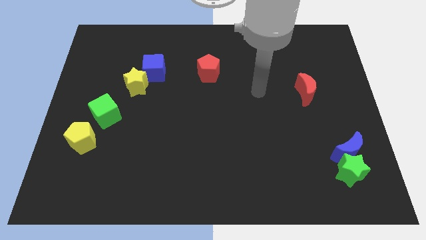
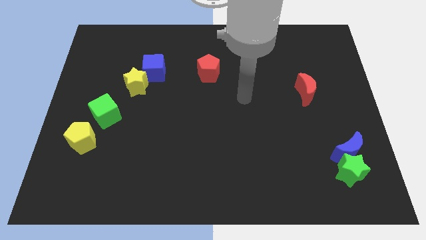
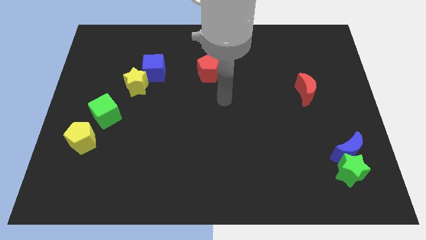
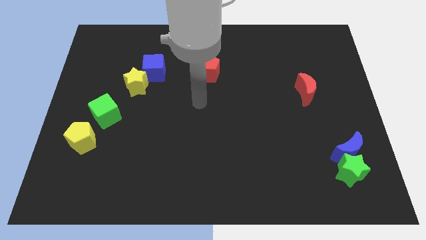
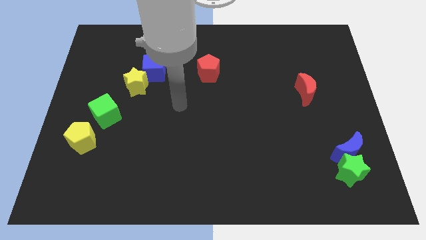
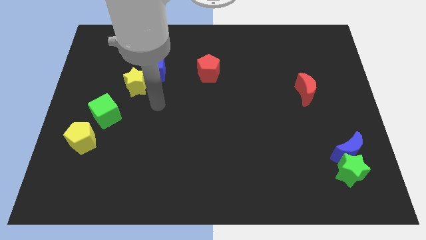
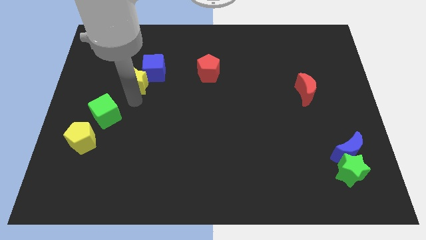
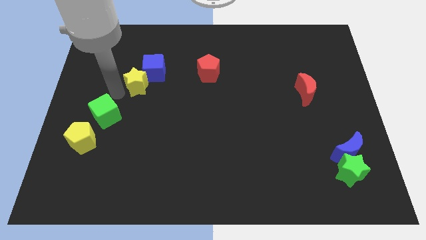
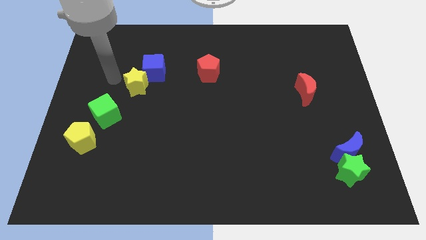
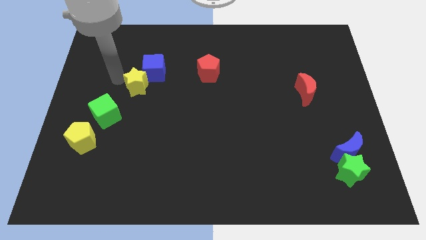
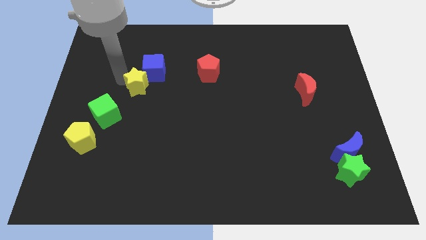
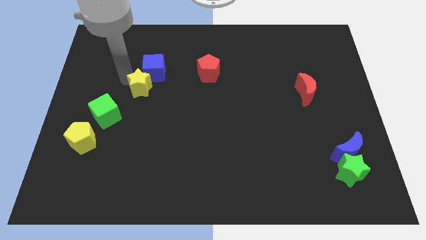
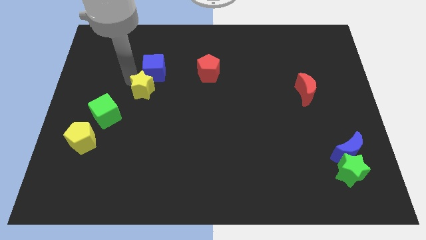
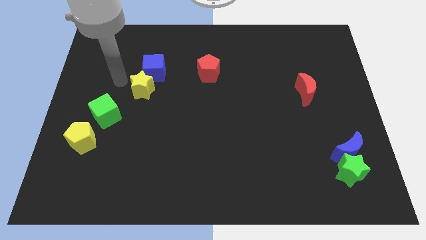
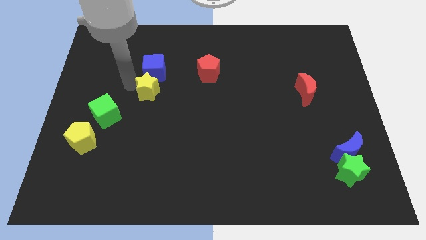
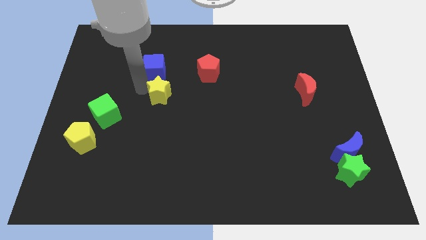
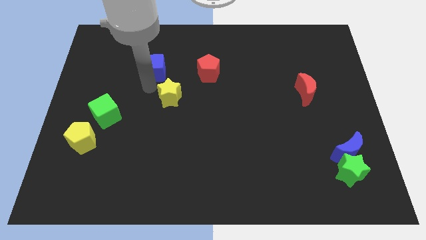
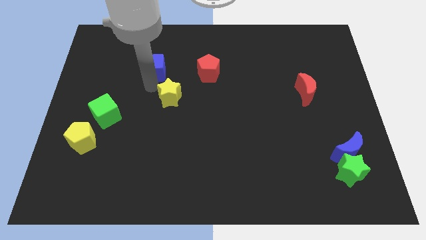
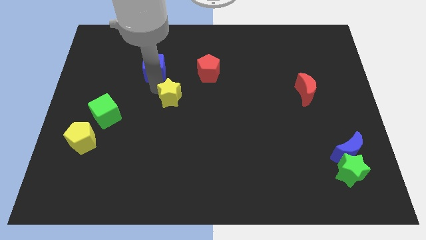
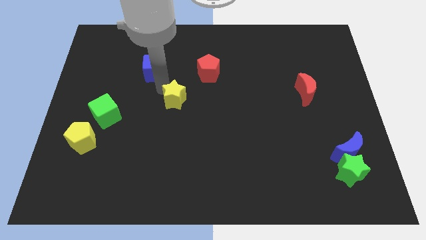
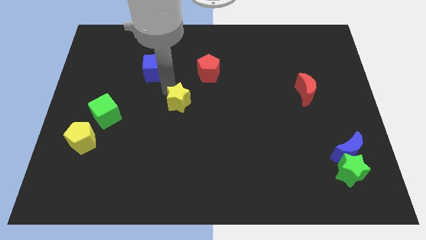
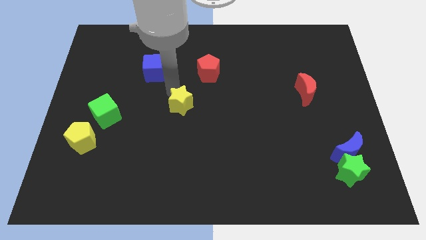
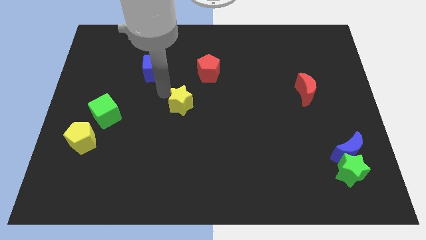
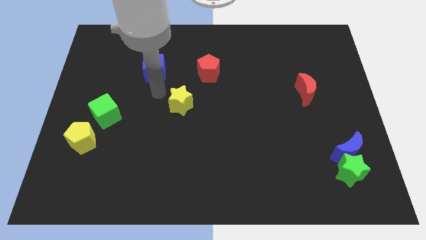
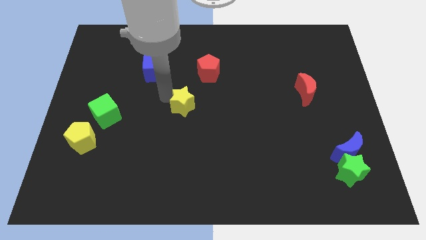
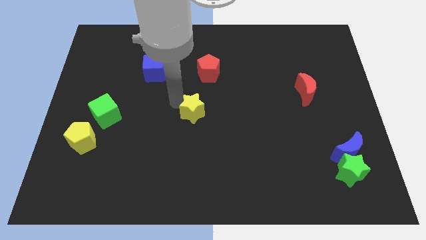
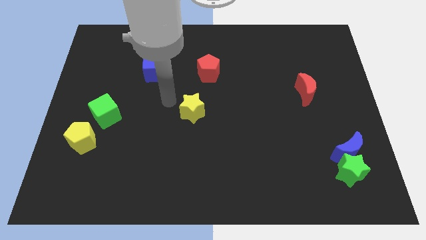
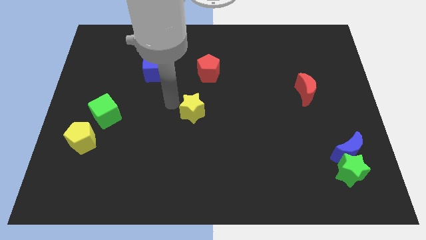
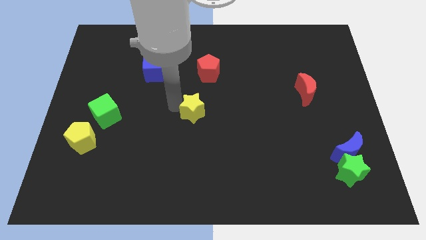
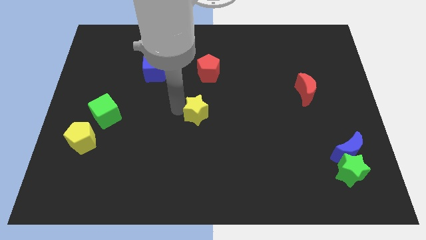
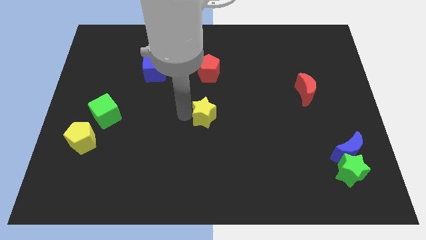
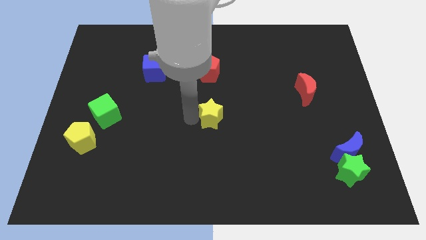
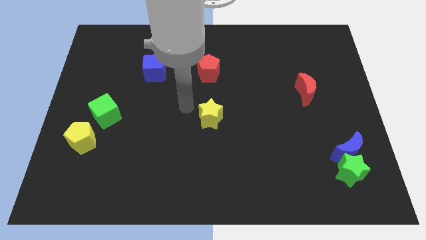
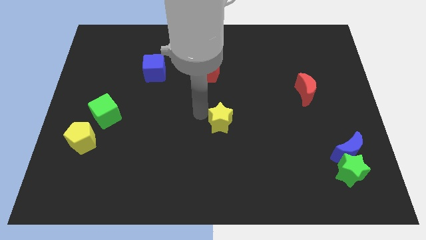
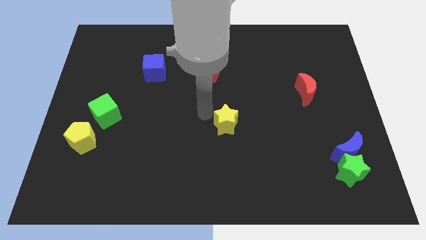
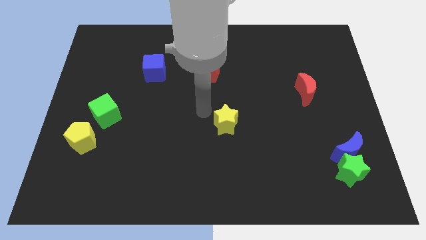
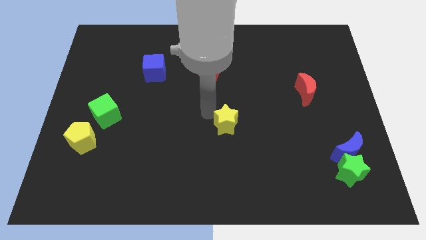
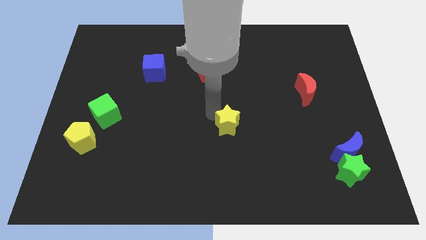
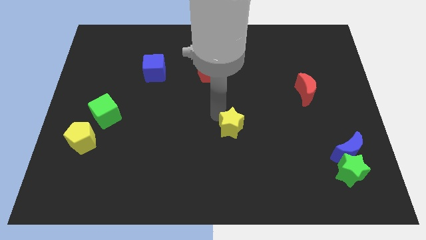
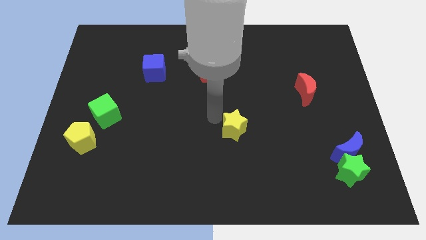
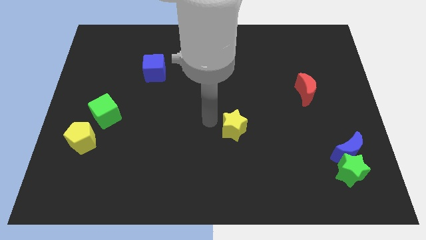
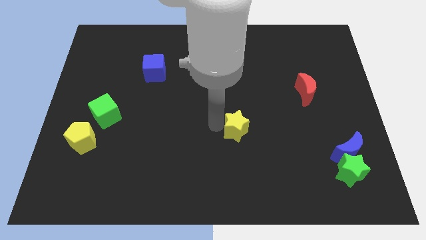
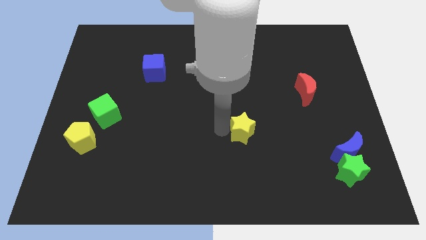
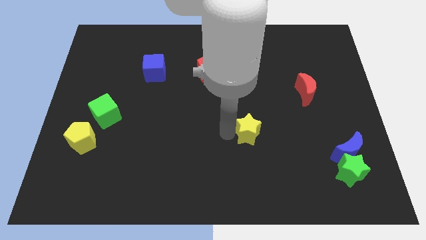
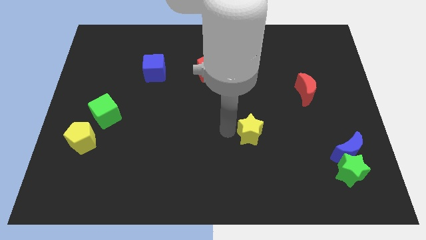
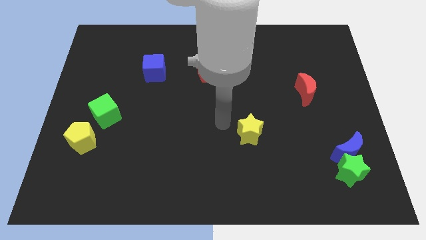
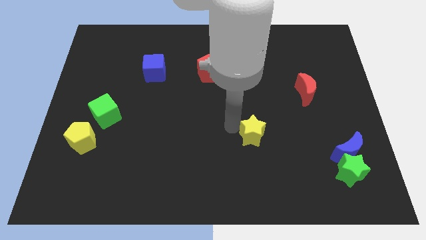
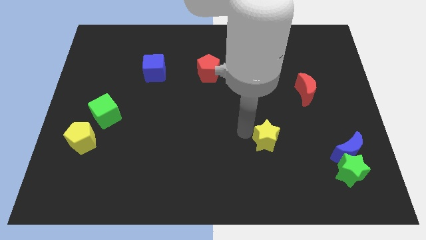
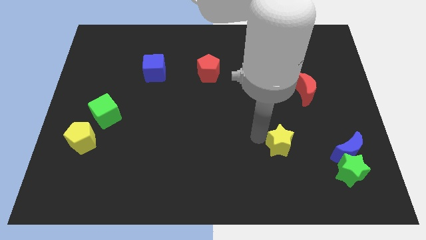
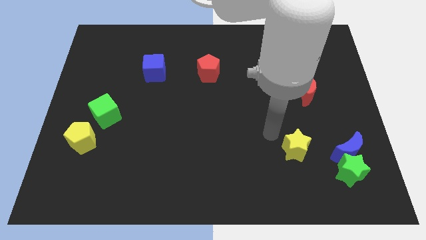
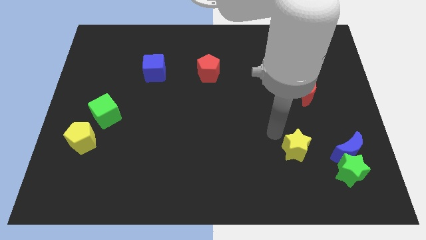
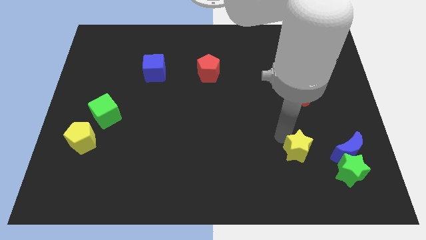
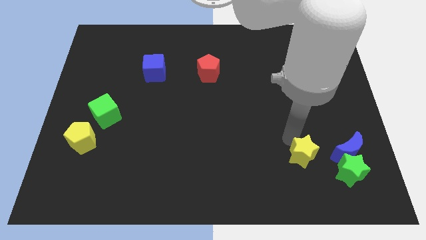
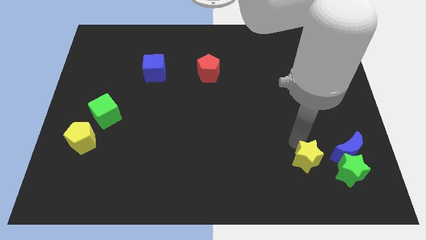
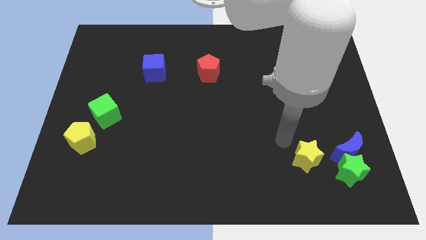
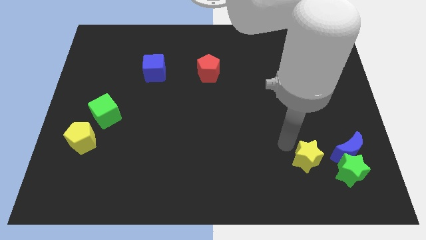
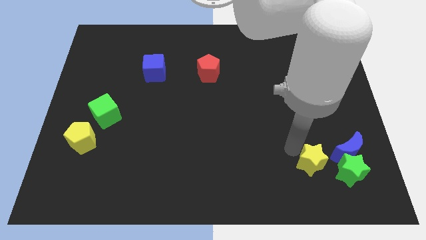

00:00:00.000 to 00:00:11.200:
push the yellow star to the bottom left of the blue moon

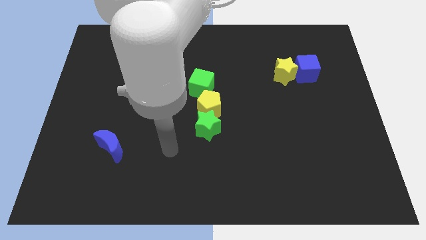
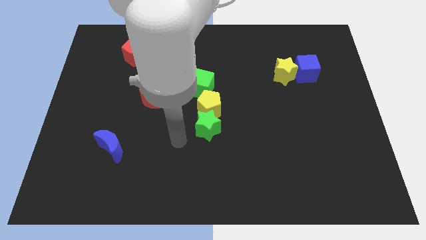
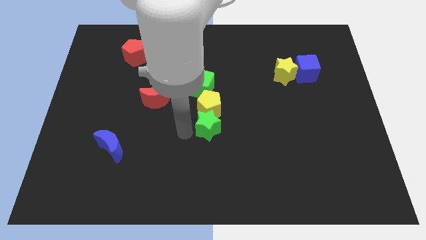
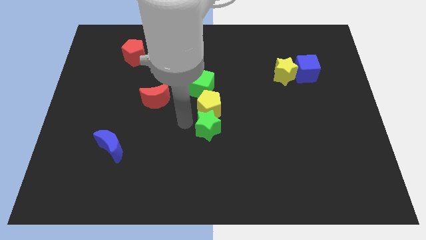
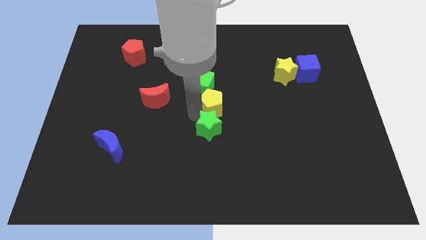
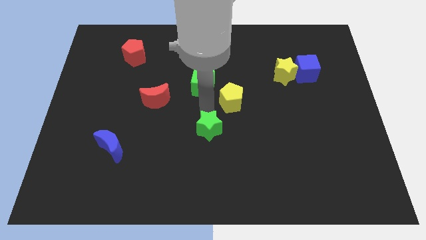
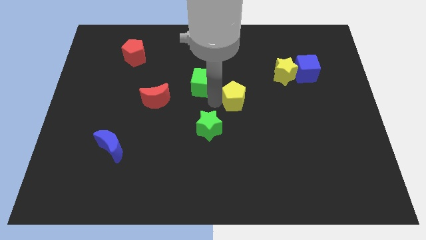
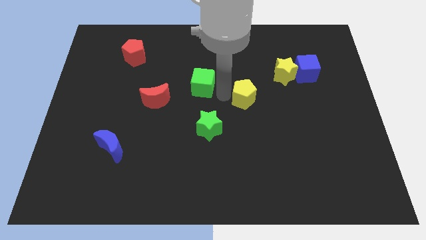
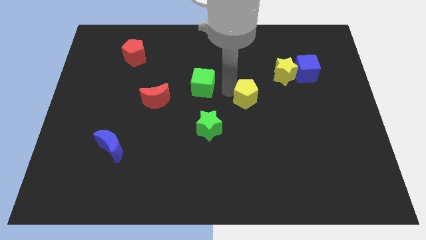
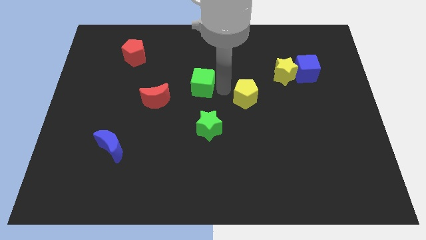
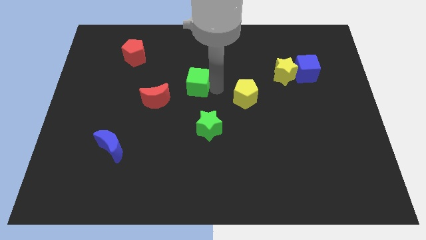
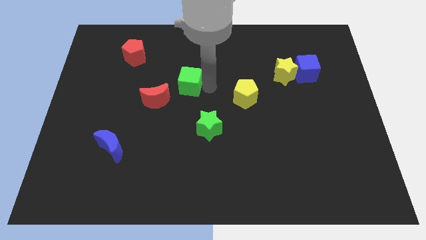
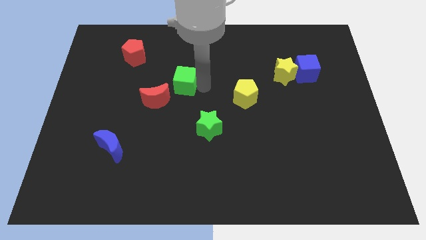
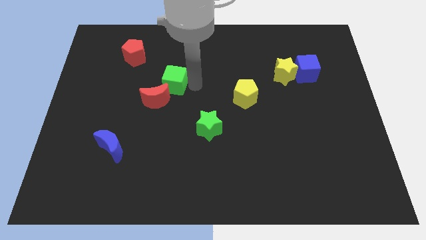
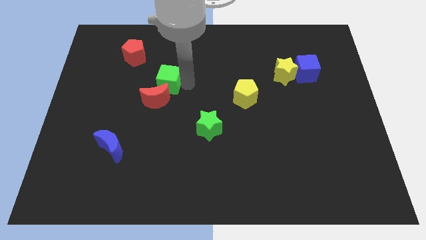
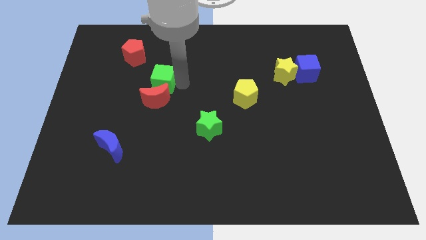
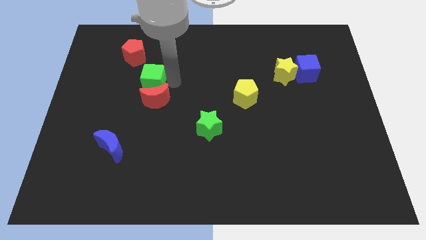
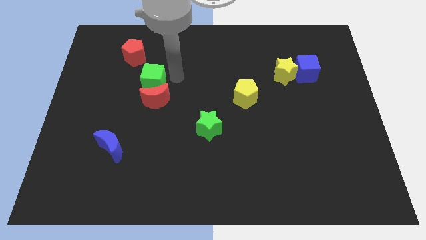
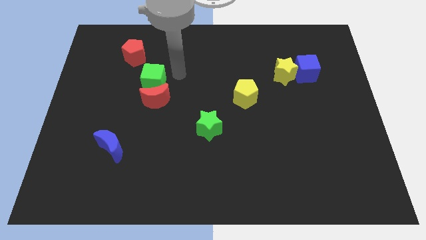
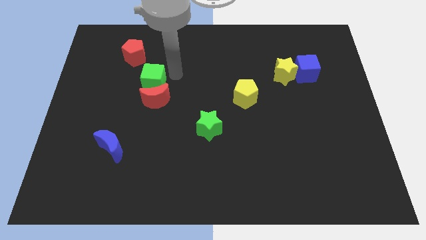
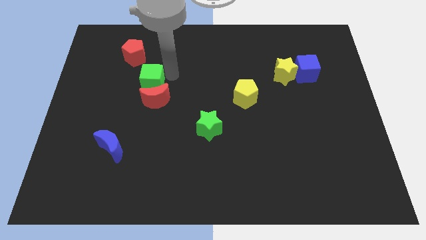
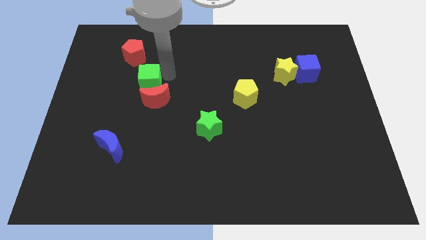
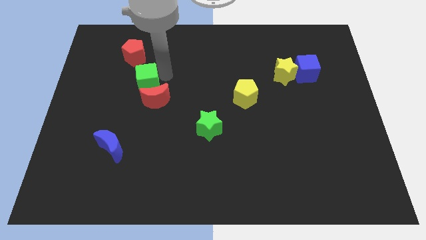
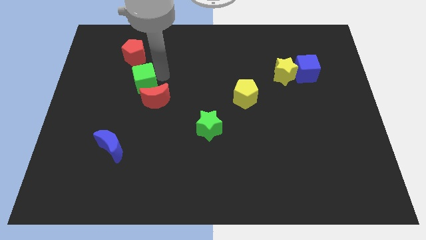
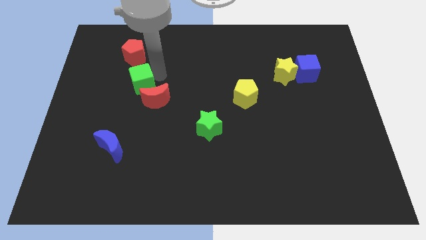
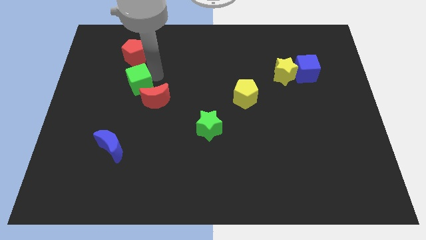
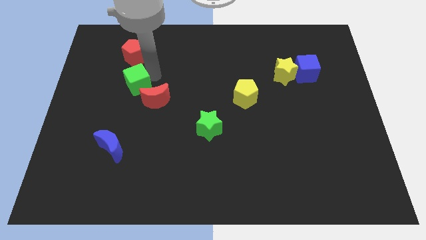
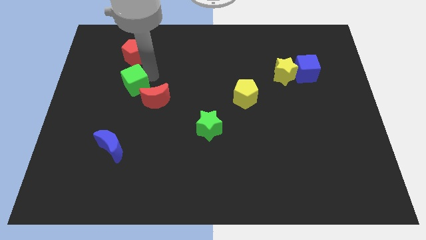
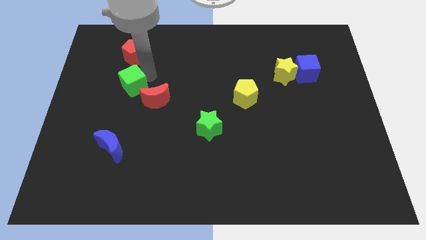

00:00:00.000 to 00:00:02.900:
push the green cube just left of the red moon

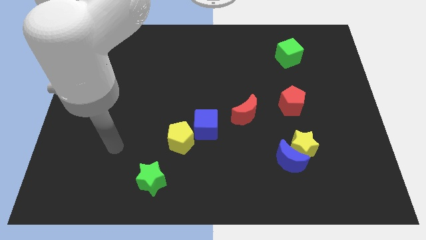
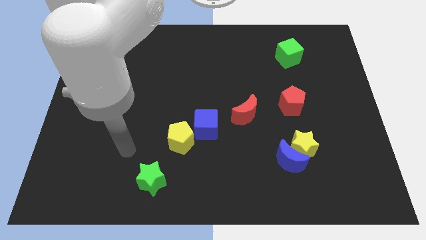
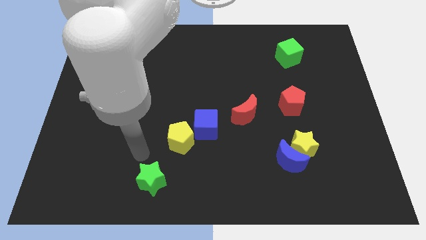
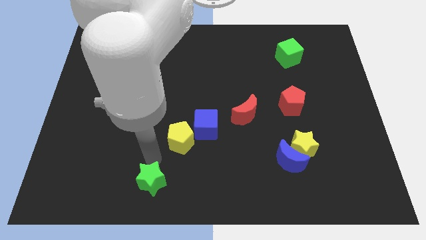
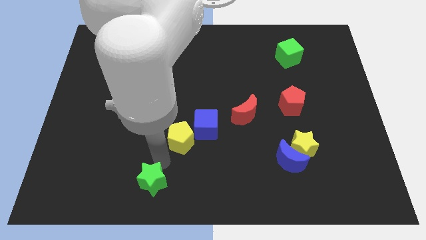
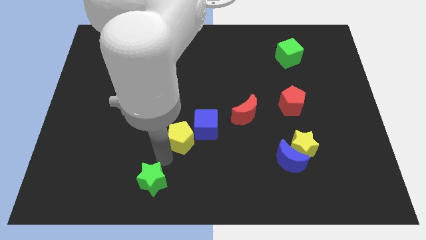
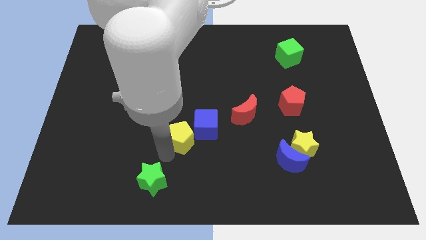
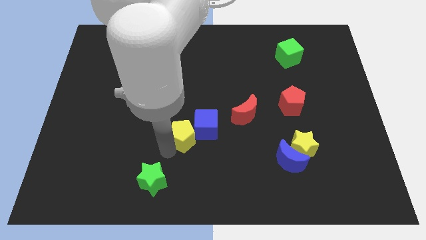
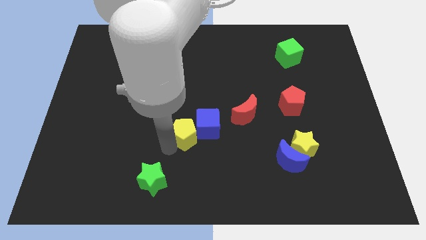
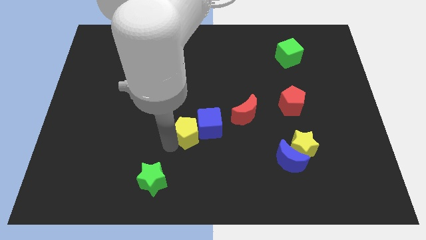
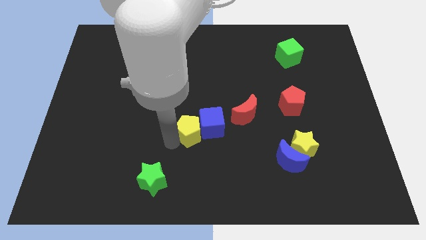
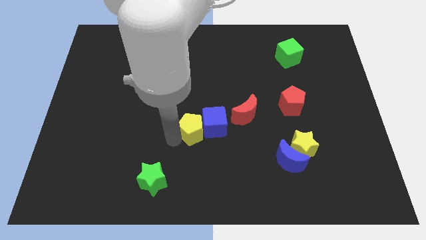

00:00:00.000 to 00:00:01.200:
push the yellow pentagon left of the red moon
